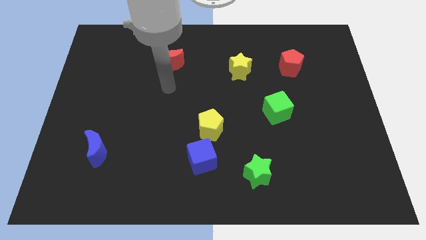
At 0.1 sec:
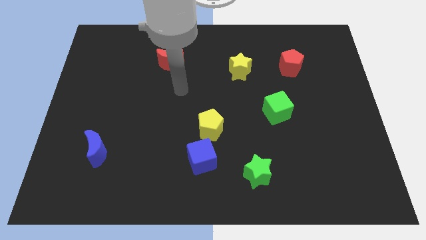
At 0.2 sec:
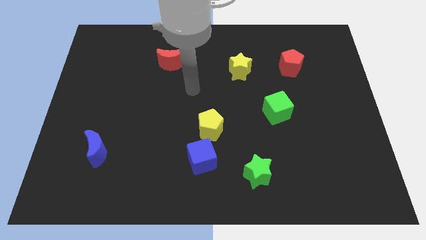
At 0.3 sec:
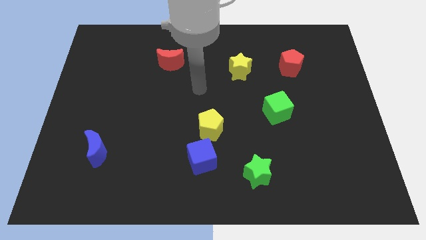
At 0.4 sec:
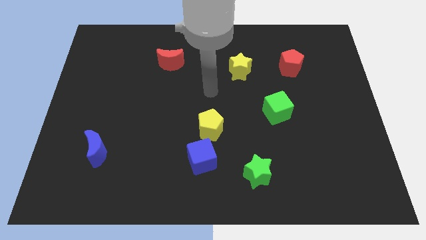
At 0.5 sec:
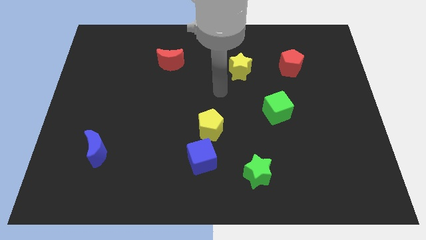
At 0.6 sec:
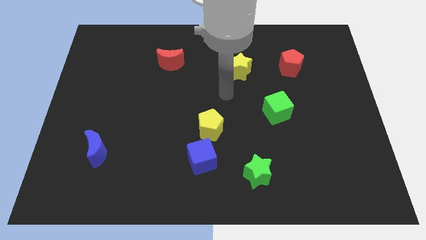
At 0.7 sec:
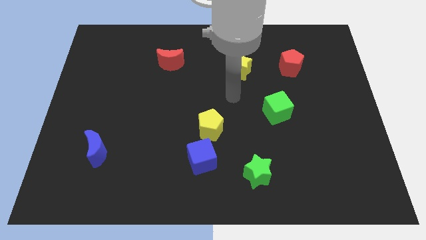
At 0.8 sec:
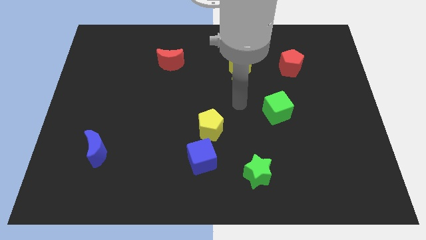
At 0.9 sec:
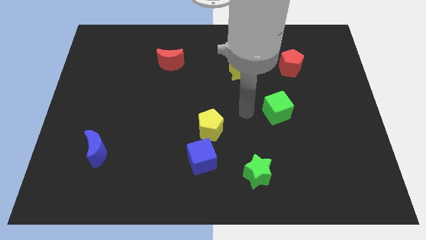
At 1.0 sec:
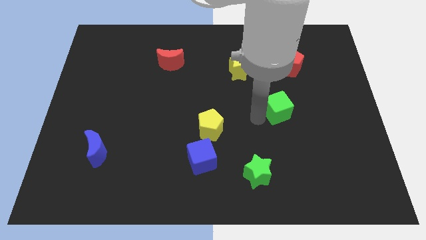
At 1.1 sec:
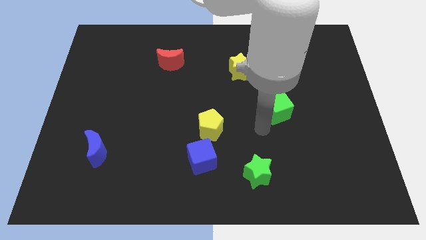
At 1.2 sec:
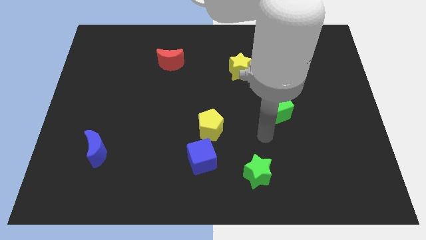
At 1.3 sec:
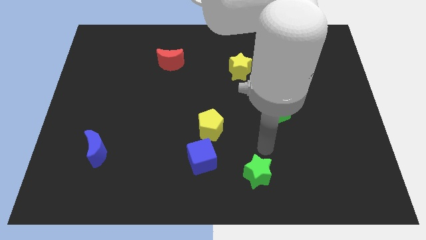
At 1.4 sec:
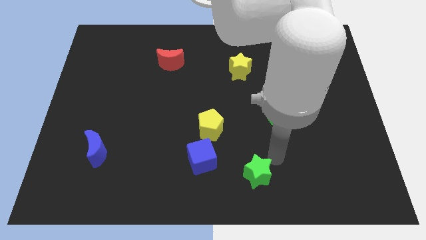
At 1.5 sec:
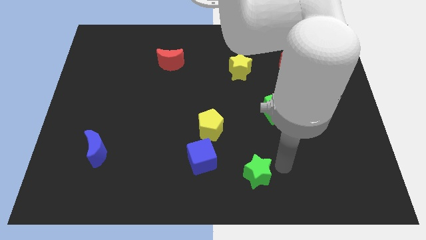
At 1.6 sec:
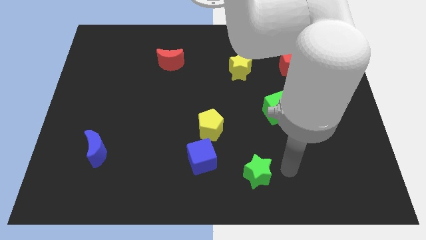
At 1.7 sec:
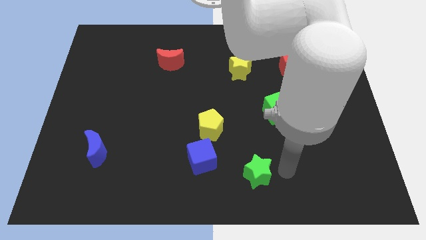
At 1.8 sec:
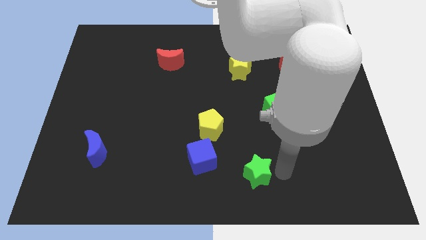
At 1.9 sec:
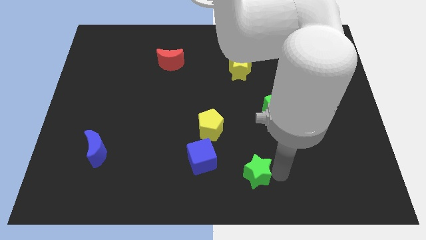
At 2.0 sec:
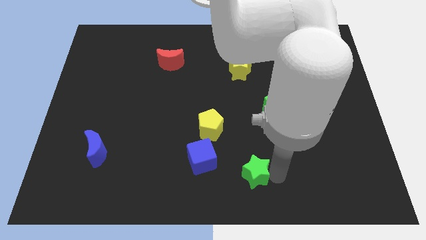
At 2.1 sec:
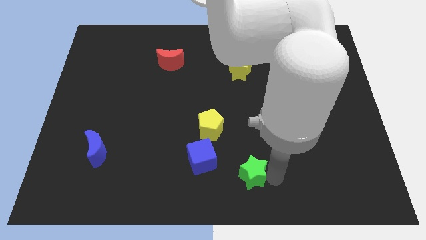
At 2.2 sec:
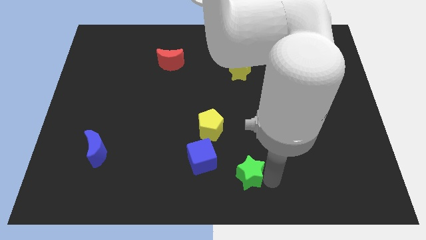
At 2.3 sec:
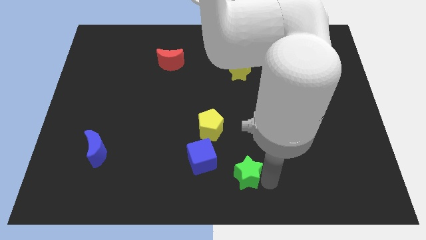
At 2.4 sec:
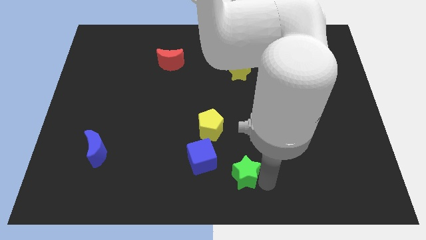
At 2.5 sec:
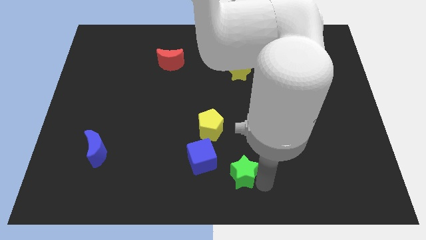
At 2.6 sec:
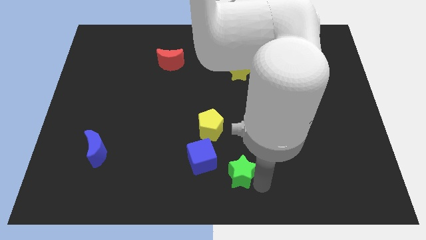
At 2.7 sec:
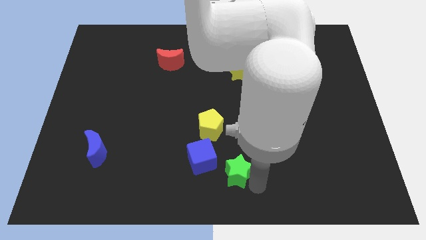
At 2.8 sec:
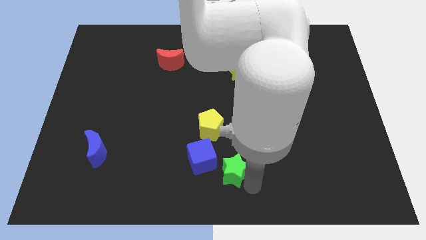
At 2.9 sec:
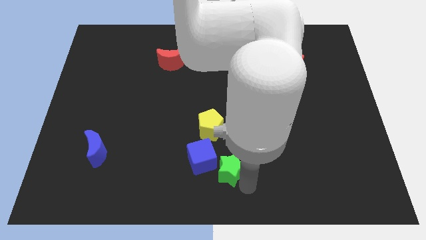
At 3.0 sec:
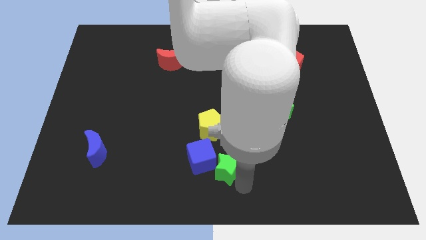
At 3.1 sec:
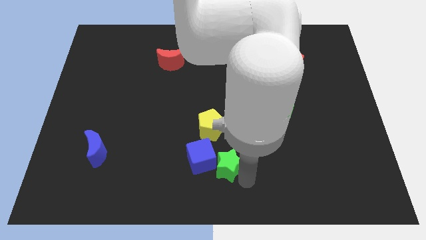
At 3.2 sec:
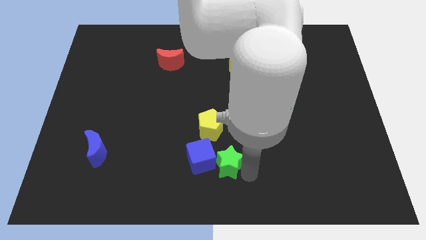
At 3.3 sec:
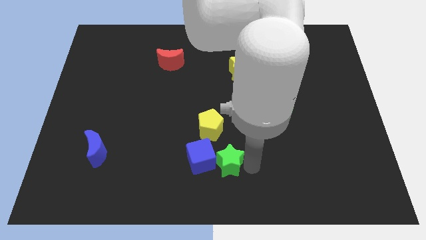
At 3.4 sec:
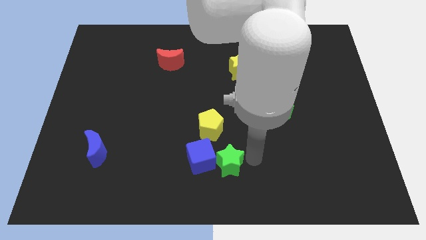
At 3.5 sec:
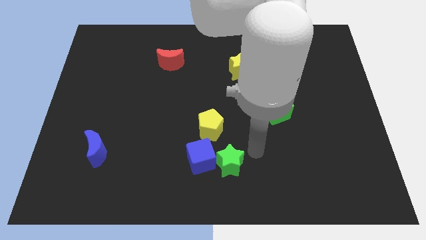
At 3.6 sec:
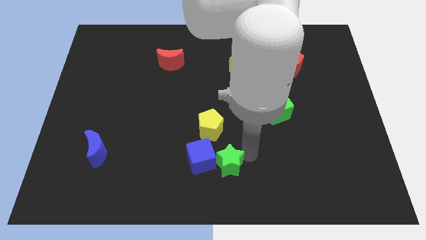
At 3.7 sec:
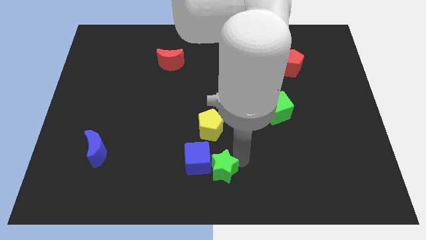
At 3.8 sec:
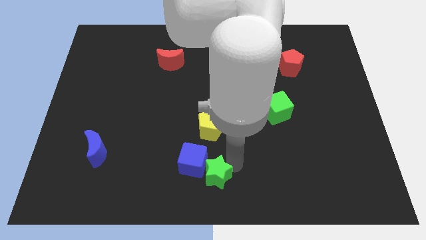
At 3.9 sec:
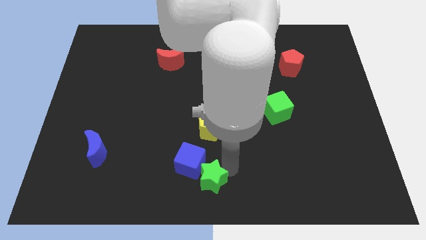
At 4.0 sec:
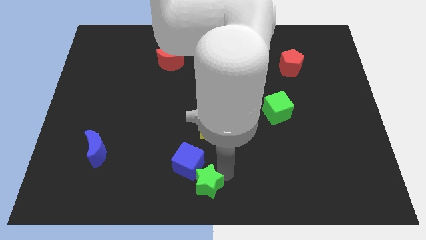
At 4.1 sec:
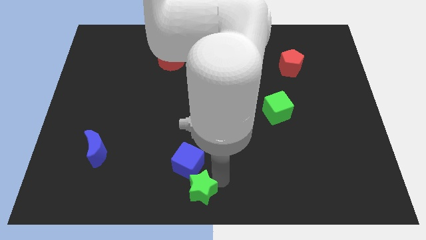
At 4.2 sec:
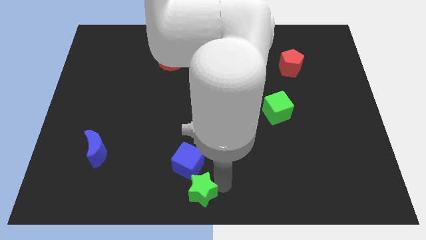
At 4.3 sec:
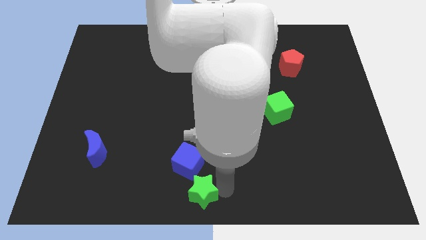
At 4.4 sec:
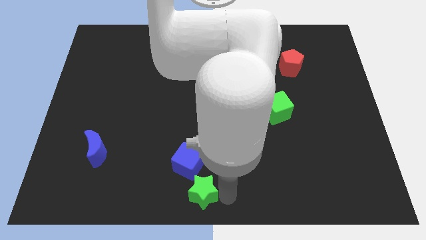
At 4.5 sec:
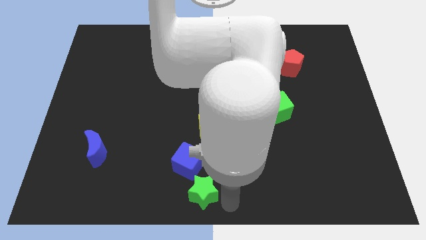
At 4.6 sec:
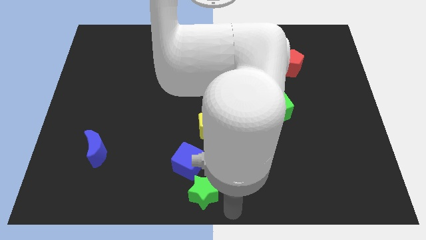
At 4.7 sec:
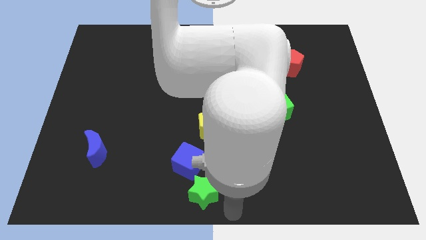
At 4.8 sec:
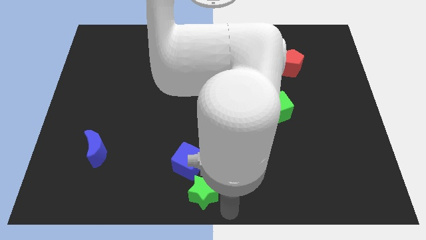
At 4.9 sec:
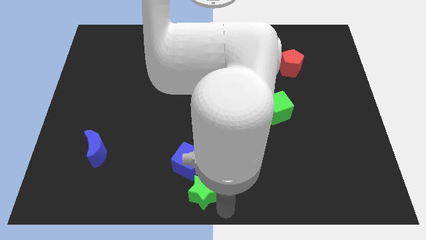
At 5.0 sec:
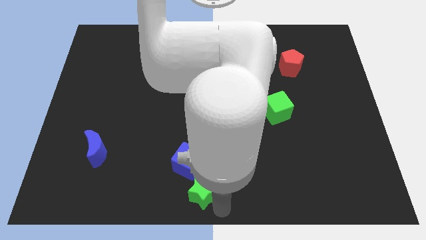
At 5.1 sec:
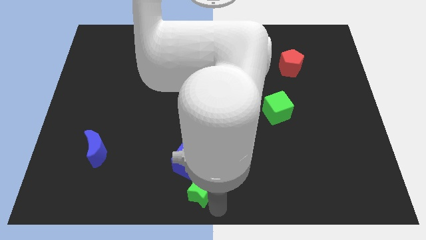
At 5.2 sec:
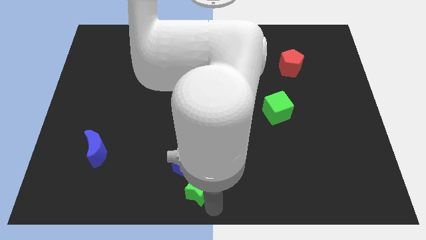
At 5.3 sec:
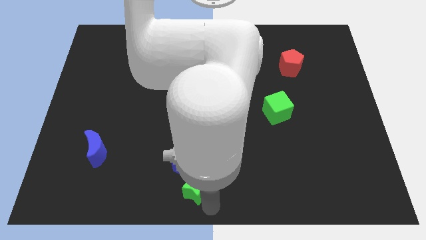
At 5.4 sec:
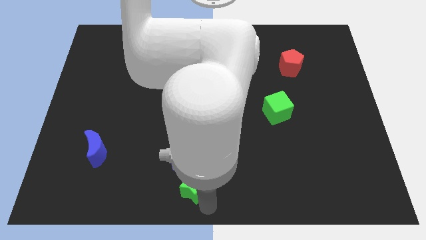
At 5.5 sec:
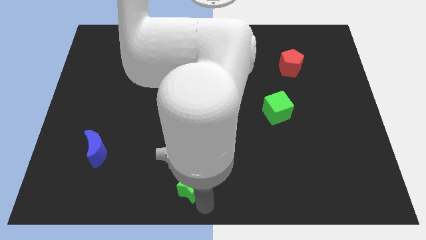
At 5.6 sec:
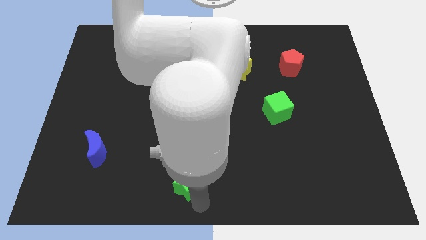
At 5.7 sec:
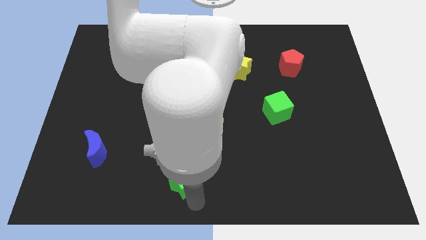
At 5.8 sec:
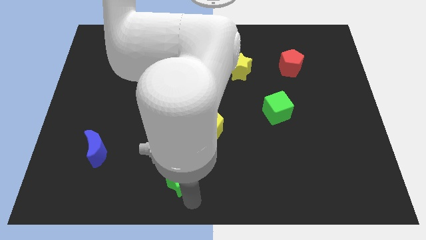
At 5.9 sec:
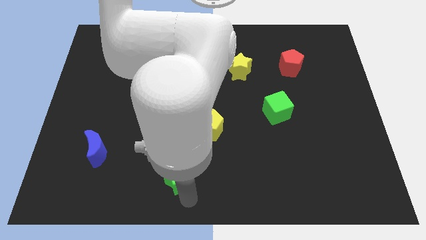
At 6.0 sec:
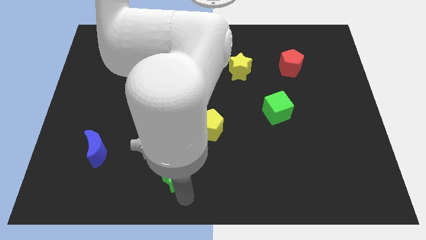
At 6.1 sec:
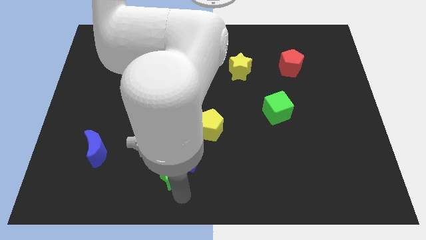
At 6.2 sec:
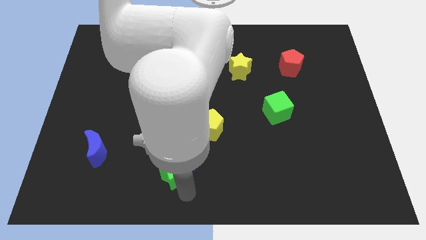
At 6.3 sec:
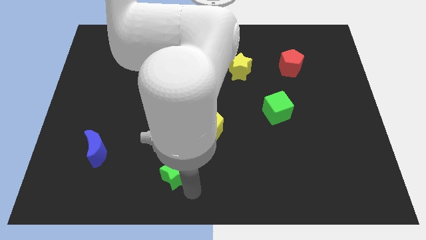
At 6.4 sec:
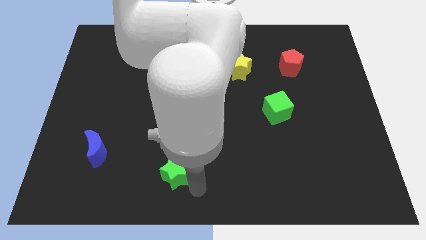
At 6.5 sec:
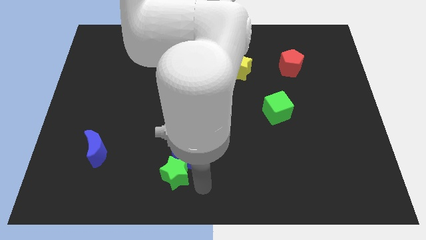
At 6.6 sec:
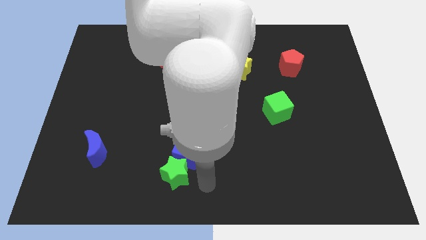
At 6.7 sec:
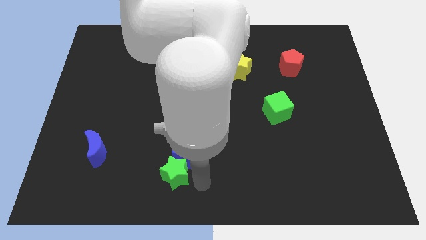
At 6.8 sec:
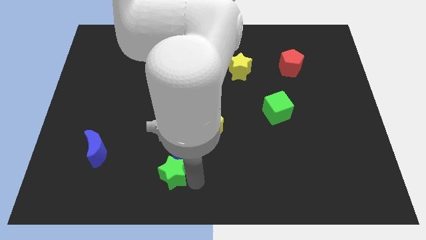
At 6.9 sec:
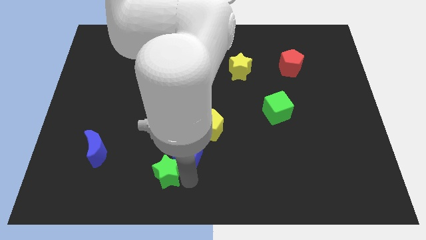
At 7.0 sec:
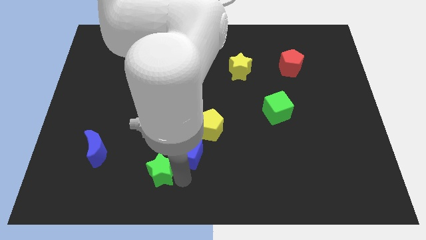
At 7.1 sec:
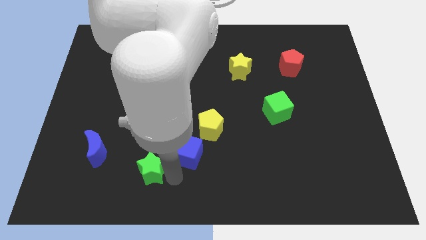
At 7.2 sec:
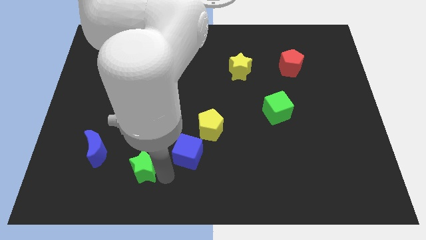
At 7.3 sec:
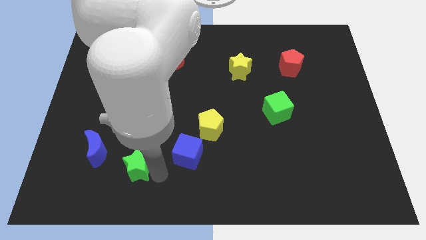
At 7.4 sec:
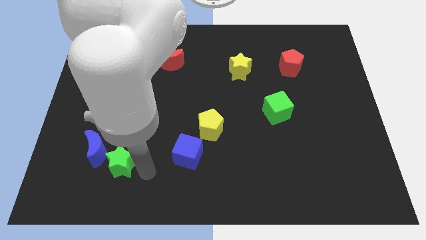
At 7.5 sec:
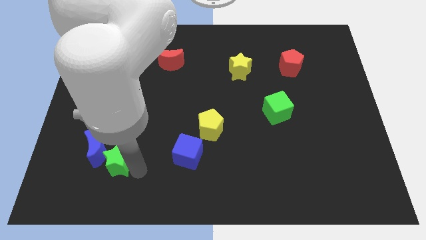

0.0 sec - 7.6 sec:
push the green star close to the blue moon
